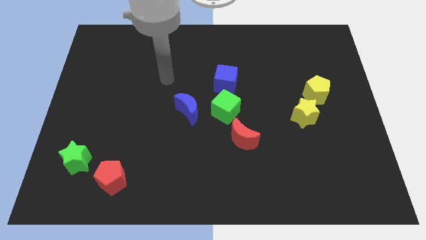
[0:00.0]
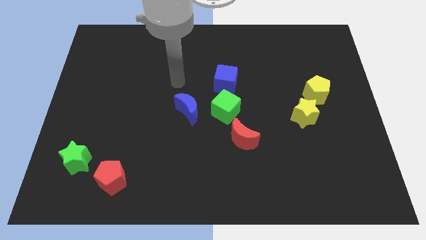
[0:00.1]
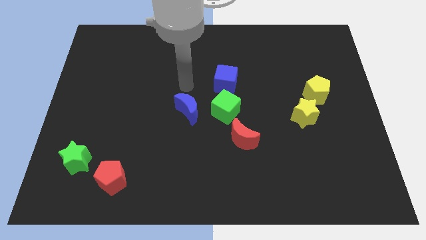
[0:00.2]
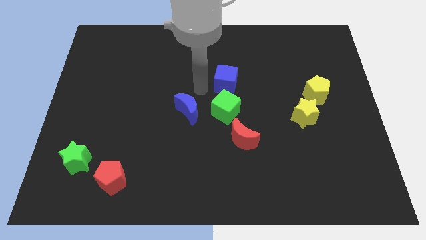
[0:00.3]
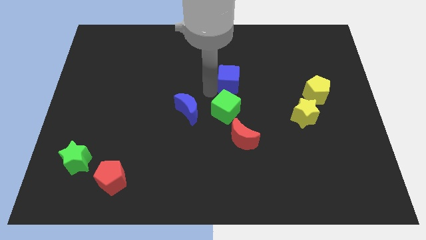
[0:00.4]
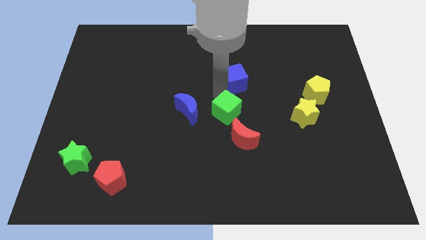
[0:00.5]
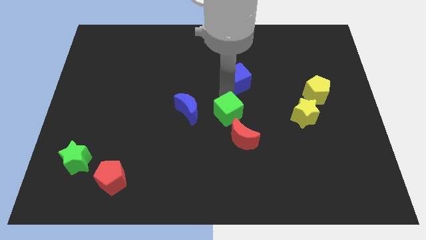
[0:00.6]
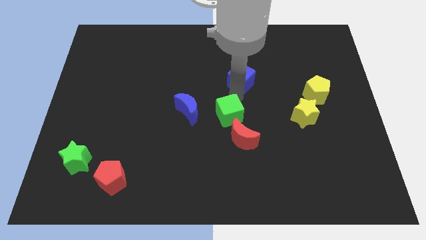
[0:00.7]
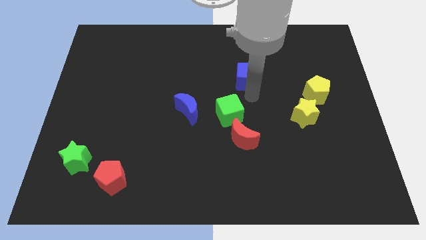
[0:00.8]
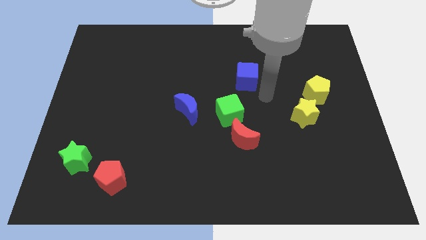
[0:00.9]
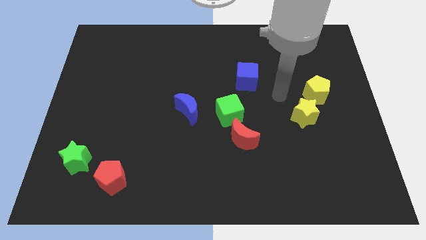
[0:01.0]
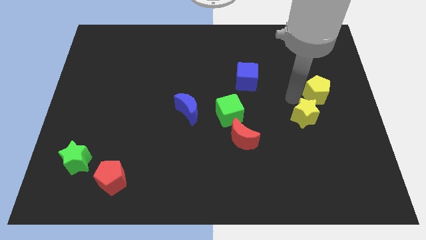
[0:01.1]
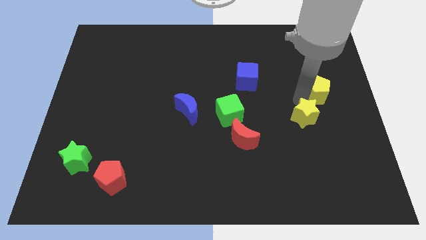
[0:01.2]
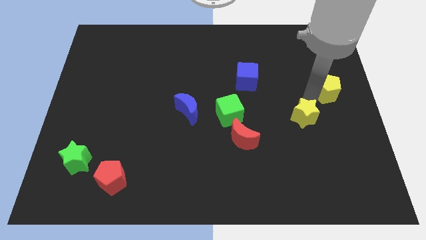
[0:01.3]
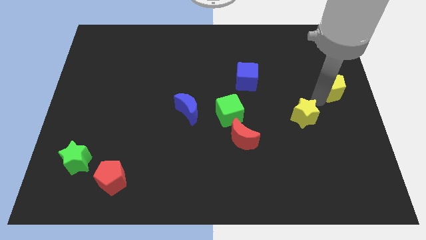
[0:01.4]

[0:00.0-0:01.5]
pull the yellow star apart from the yellow pentagon

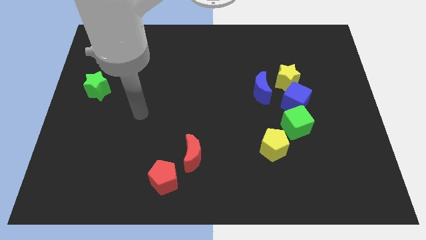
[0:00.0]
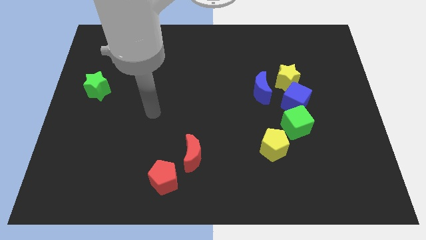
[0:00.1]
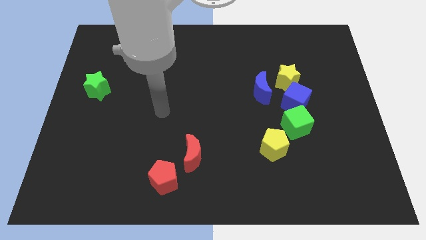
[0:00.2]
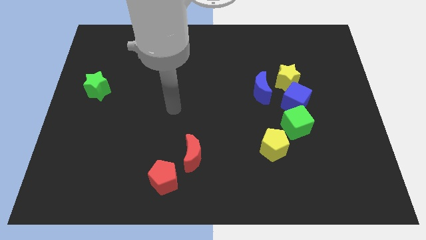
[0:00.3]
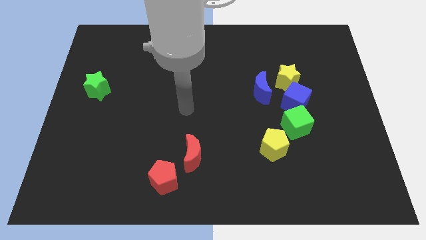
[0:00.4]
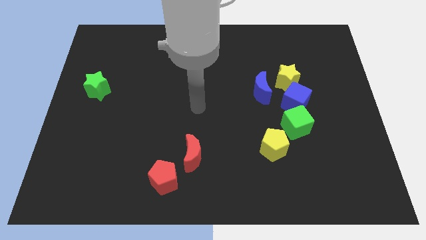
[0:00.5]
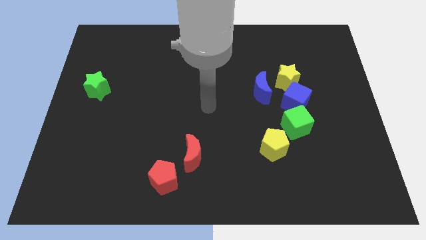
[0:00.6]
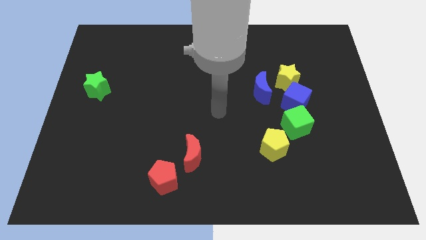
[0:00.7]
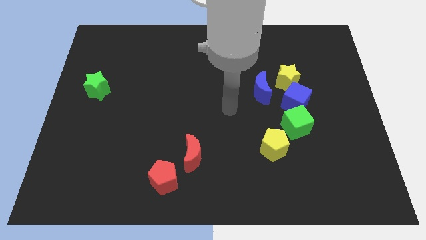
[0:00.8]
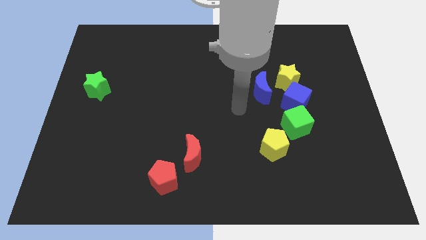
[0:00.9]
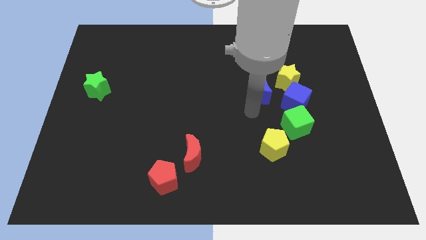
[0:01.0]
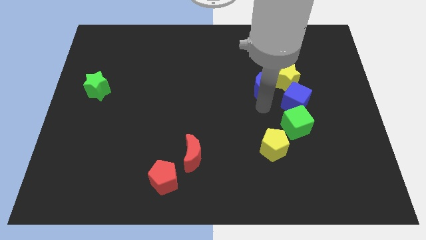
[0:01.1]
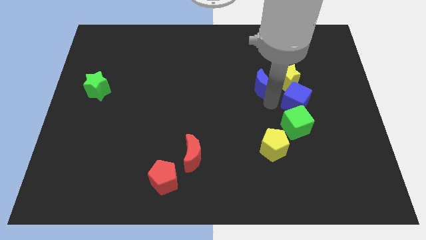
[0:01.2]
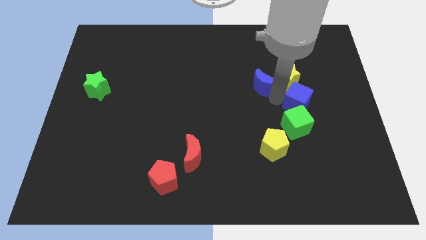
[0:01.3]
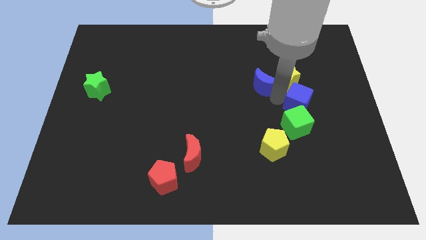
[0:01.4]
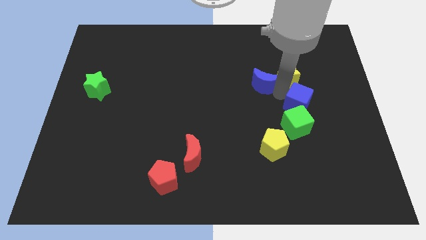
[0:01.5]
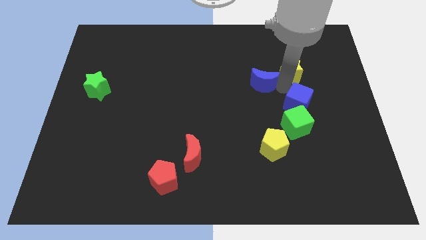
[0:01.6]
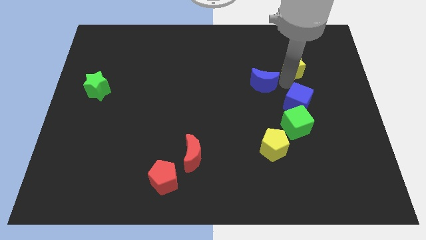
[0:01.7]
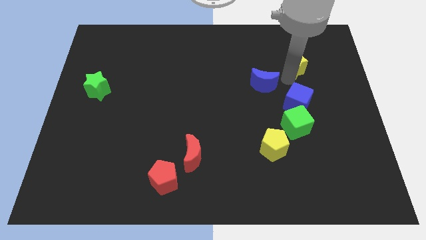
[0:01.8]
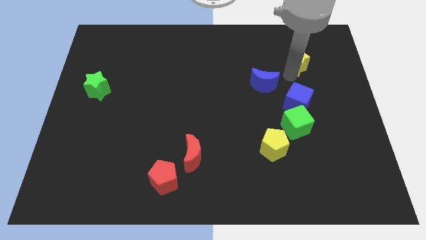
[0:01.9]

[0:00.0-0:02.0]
separate the yellow star from the blue cube and blue moon

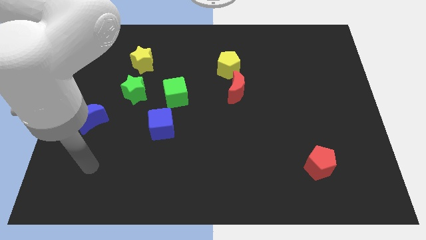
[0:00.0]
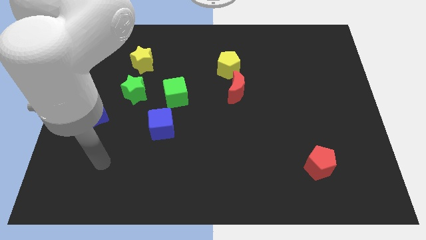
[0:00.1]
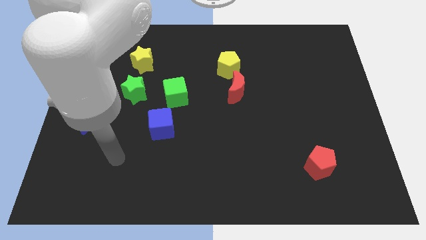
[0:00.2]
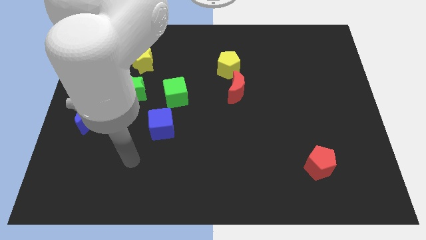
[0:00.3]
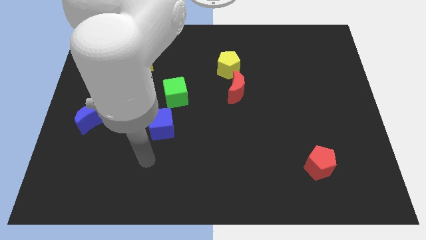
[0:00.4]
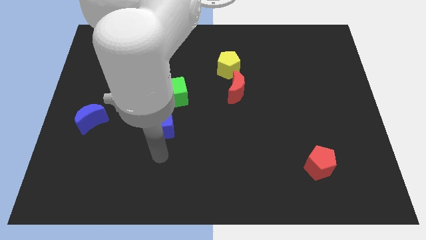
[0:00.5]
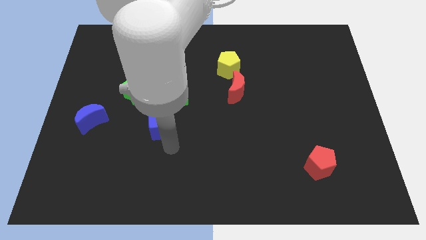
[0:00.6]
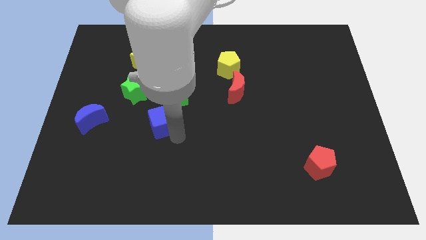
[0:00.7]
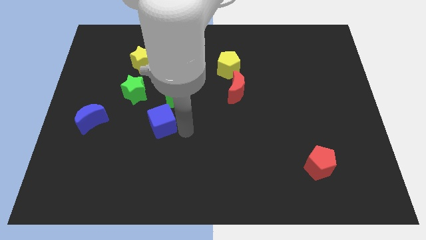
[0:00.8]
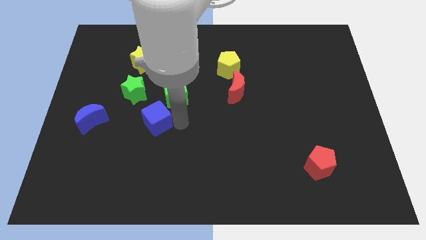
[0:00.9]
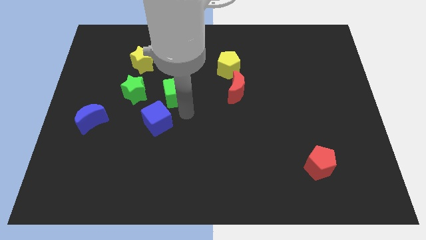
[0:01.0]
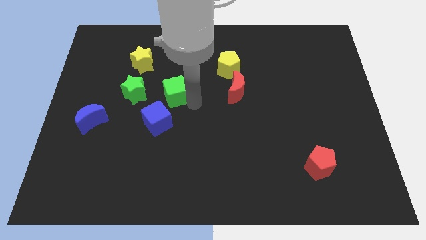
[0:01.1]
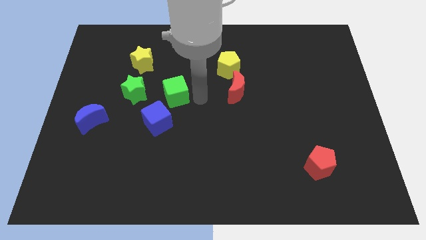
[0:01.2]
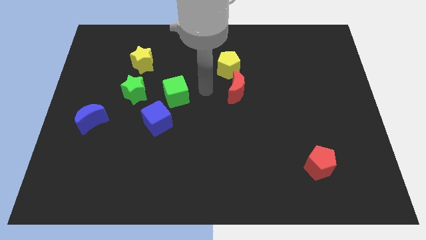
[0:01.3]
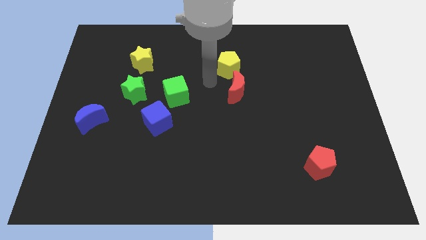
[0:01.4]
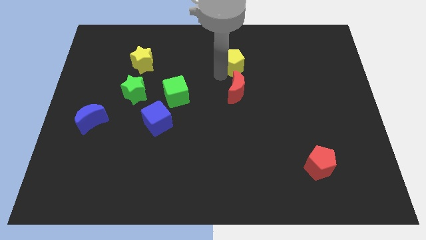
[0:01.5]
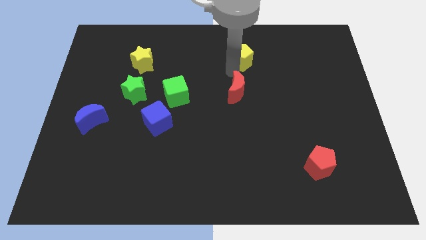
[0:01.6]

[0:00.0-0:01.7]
pull the red moon apart from the yellow pentagon

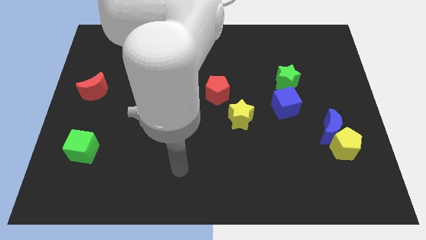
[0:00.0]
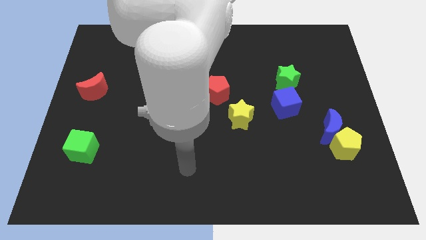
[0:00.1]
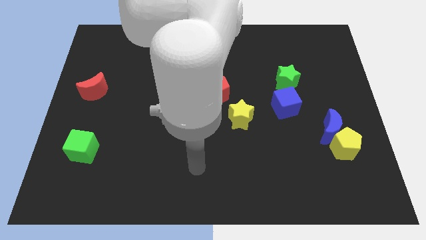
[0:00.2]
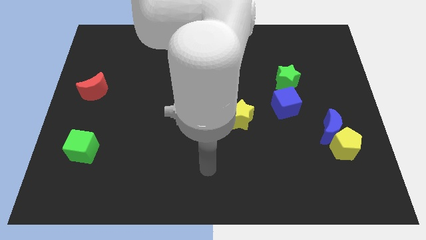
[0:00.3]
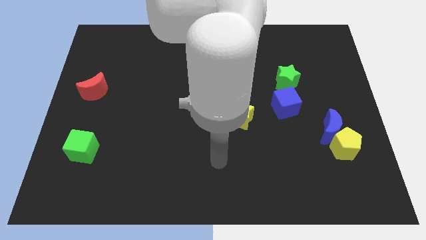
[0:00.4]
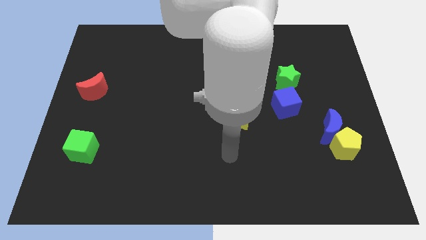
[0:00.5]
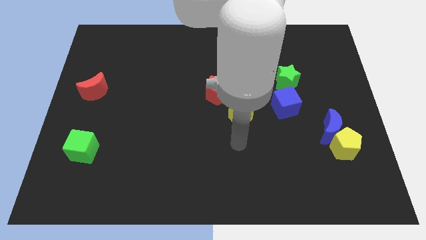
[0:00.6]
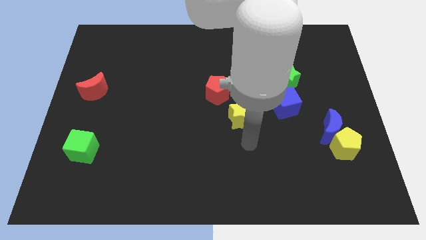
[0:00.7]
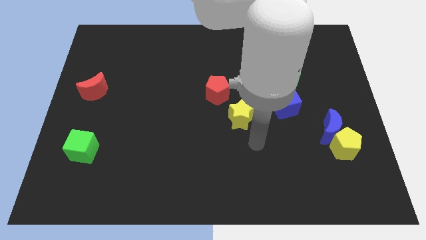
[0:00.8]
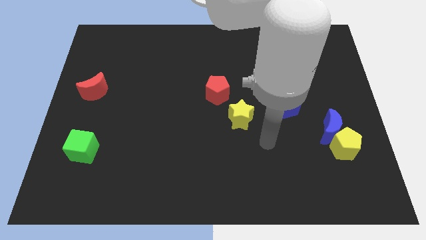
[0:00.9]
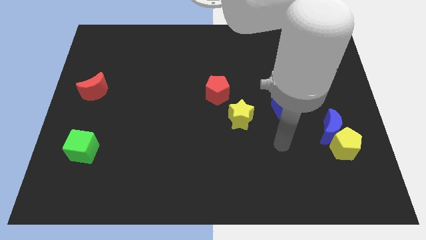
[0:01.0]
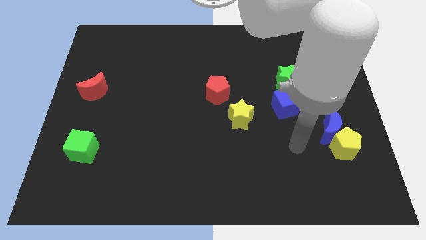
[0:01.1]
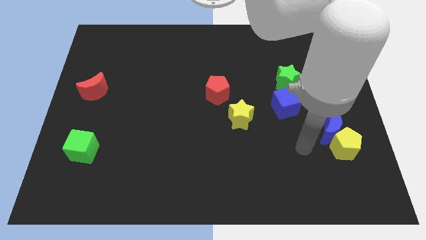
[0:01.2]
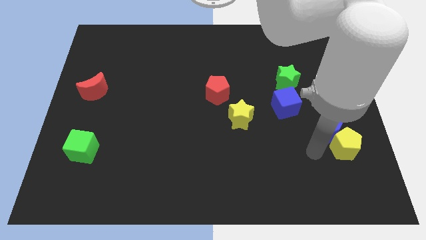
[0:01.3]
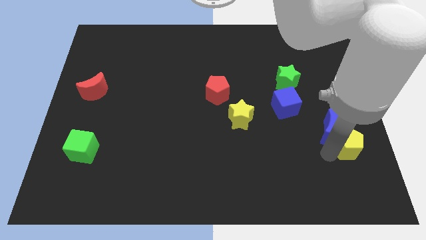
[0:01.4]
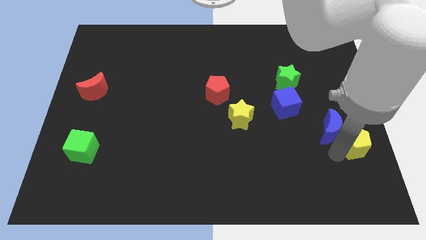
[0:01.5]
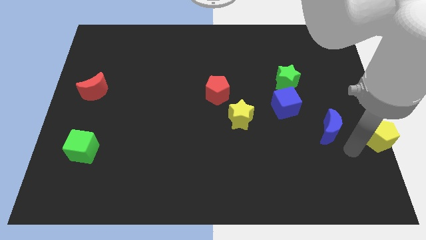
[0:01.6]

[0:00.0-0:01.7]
pull the blue moon apart from the yellow pentagon

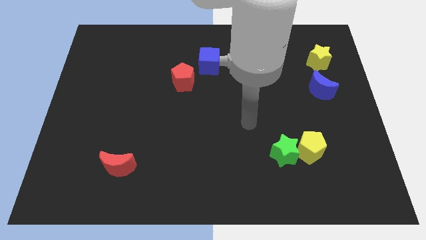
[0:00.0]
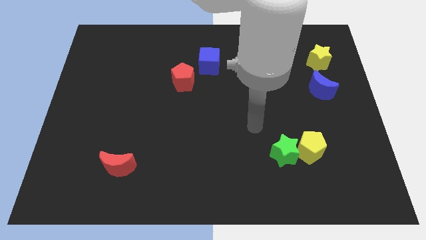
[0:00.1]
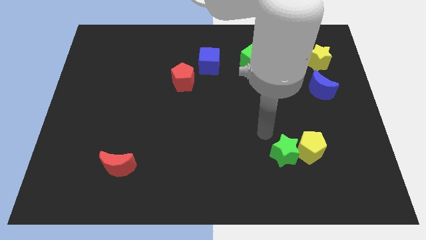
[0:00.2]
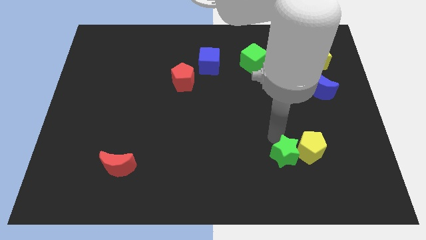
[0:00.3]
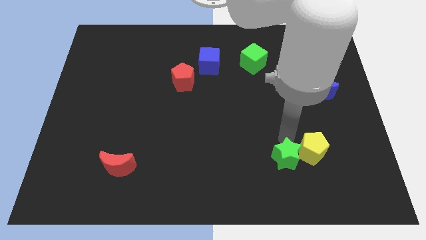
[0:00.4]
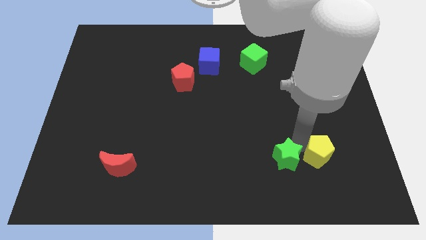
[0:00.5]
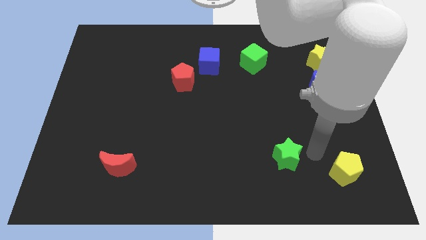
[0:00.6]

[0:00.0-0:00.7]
pull the green star apart from the yellow pentagon

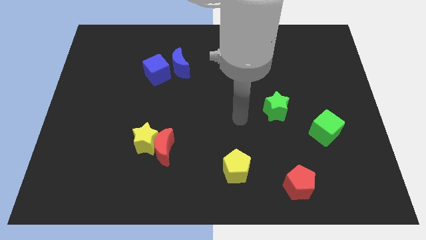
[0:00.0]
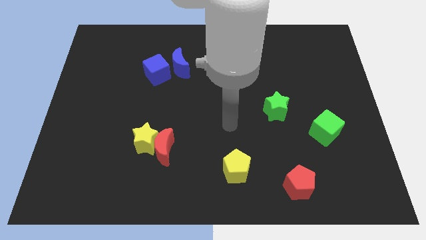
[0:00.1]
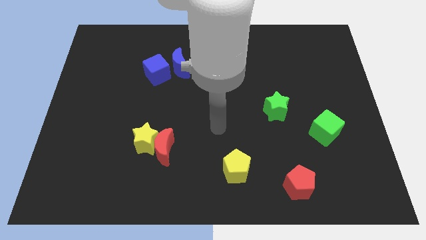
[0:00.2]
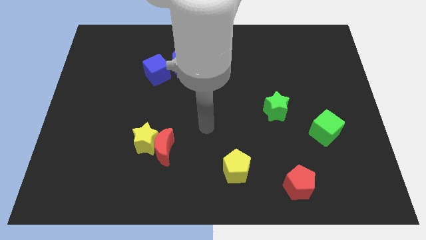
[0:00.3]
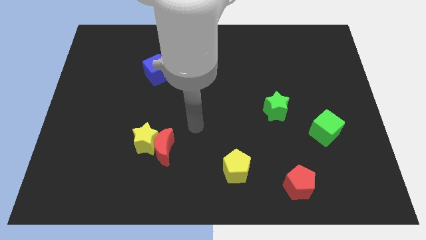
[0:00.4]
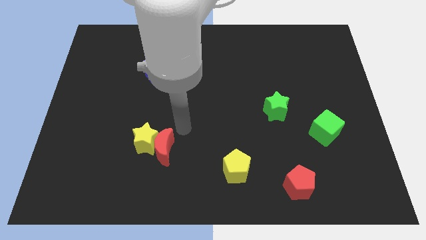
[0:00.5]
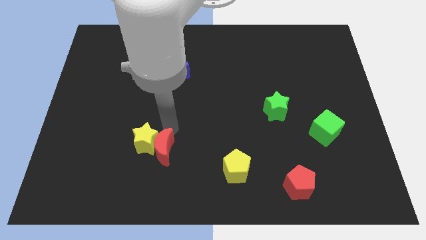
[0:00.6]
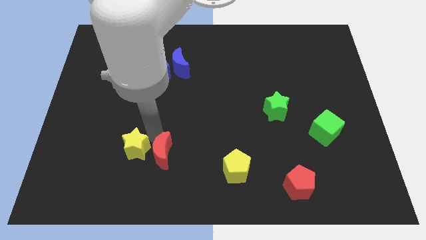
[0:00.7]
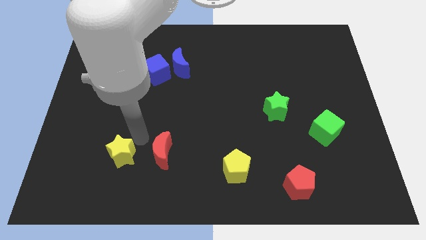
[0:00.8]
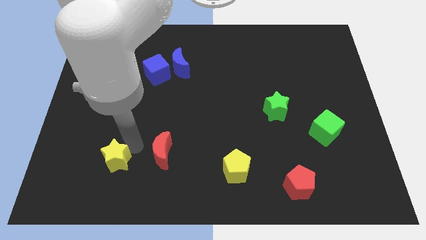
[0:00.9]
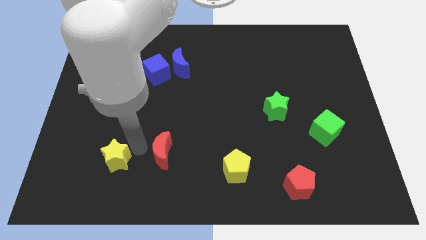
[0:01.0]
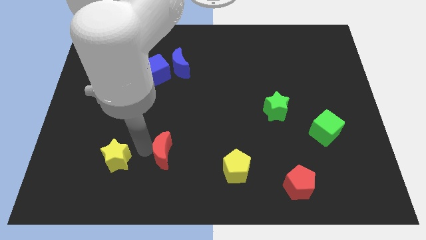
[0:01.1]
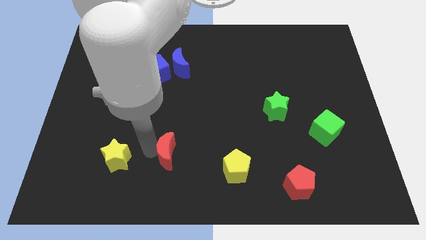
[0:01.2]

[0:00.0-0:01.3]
pull the red moon apart from the yellow star

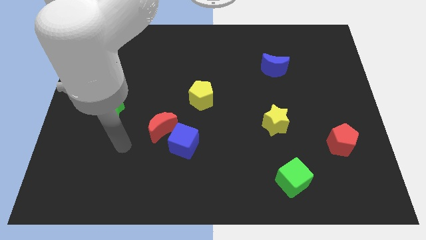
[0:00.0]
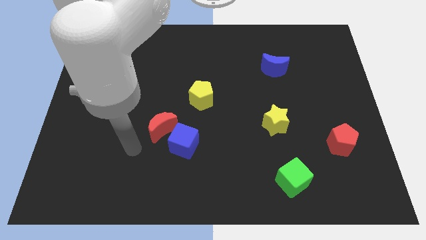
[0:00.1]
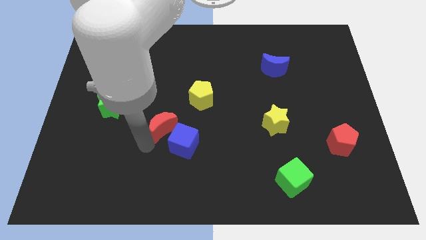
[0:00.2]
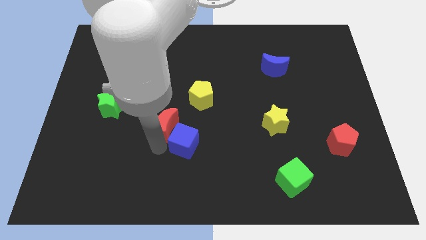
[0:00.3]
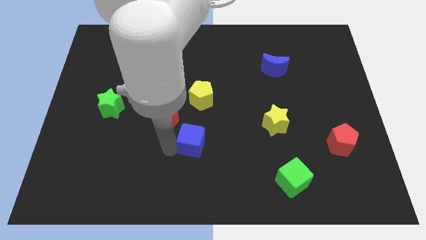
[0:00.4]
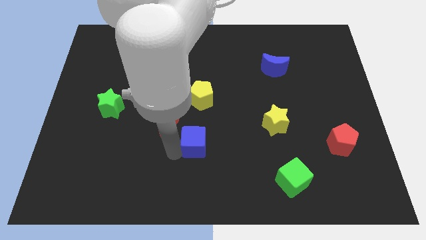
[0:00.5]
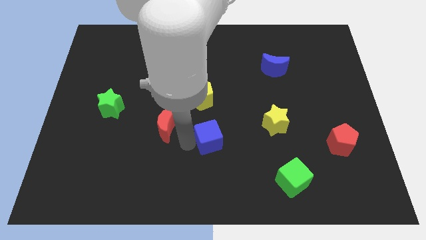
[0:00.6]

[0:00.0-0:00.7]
separate the red moon from the blue cube
